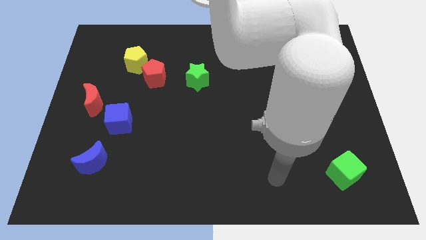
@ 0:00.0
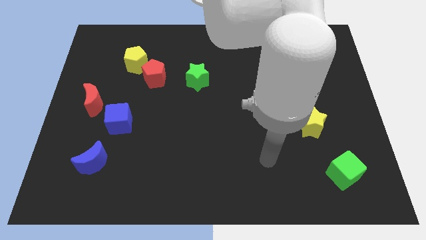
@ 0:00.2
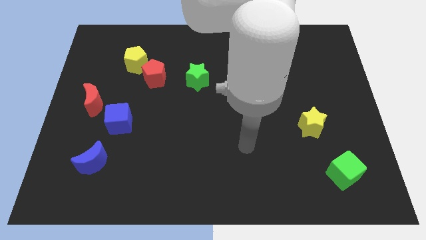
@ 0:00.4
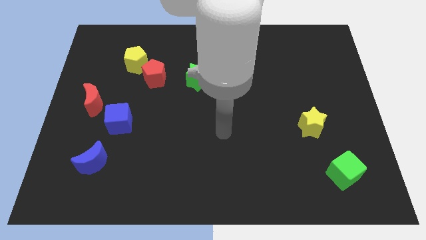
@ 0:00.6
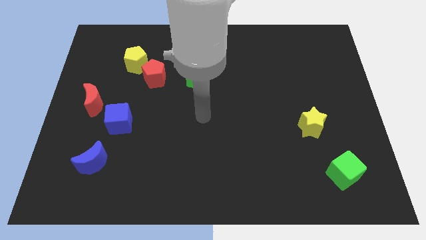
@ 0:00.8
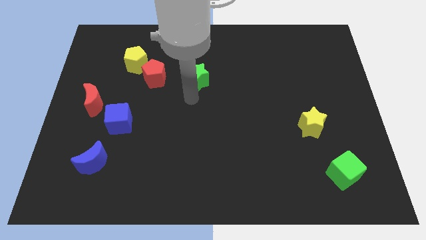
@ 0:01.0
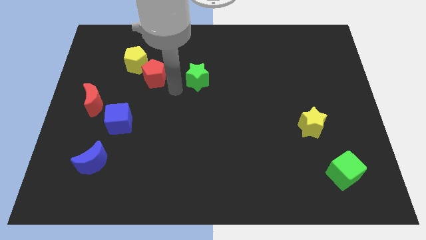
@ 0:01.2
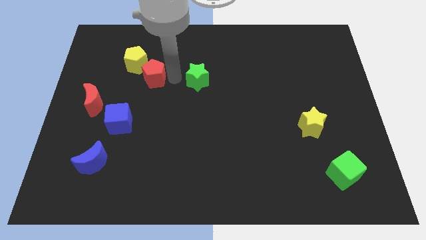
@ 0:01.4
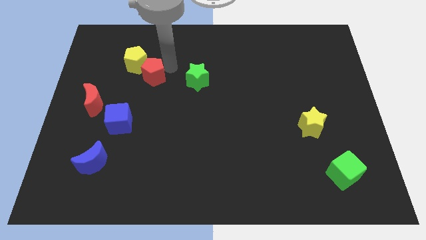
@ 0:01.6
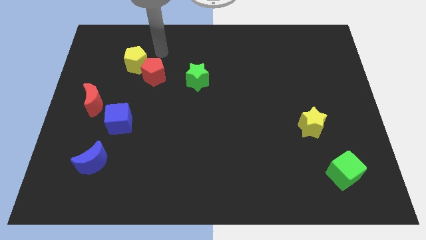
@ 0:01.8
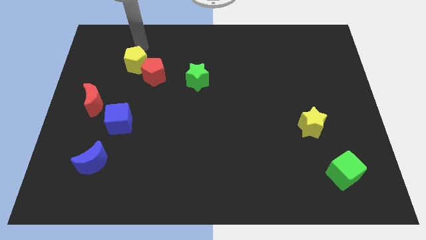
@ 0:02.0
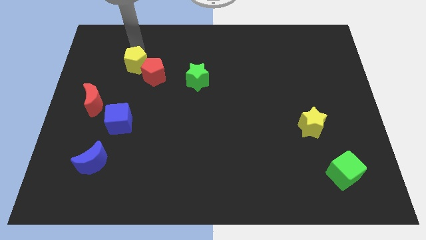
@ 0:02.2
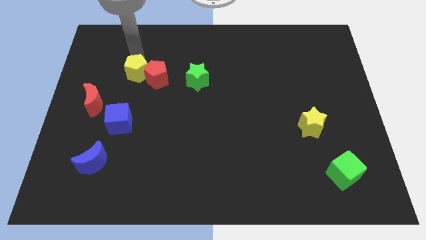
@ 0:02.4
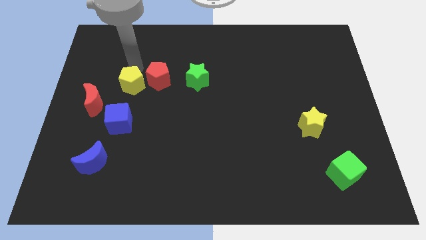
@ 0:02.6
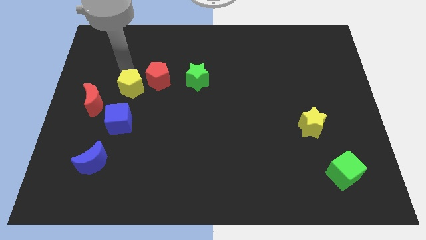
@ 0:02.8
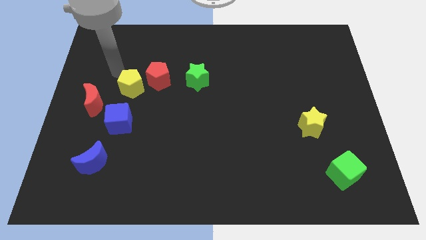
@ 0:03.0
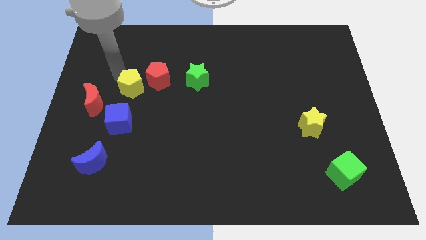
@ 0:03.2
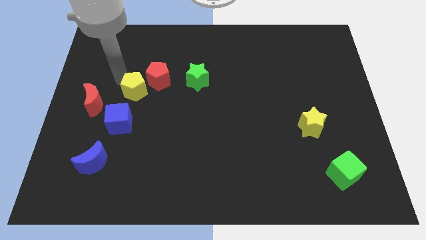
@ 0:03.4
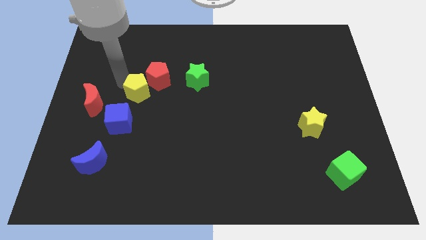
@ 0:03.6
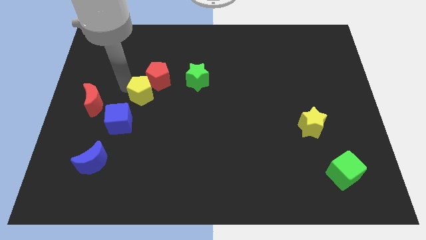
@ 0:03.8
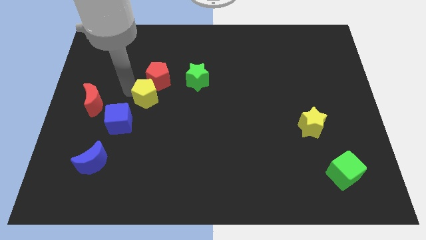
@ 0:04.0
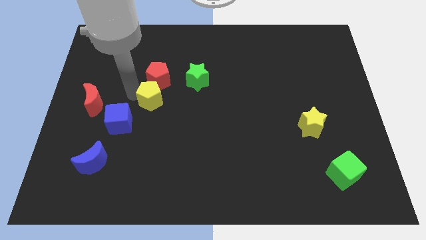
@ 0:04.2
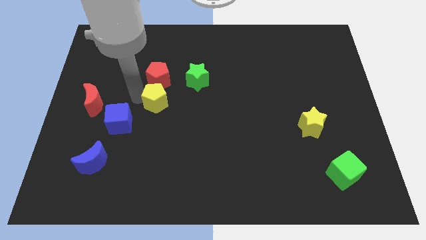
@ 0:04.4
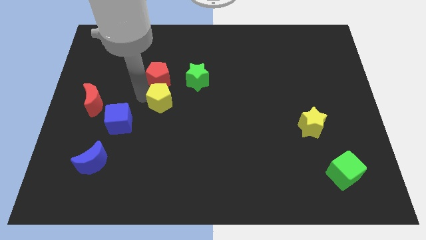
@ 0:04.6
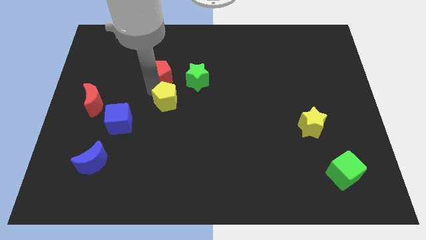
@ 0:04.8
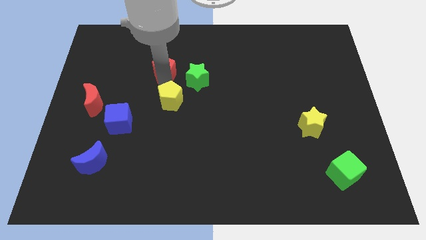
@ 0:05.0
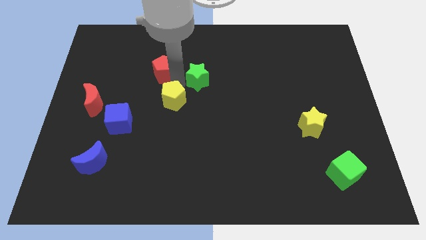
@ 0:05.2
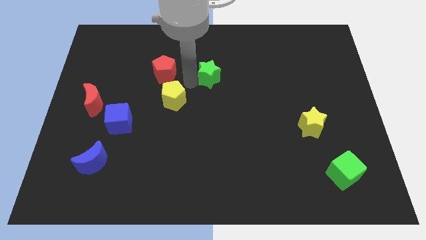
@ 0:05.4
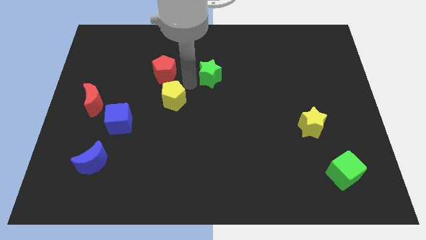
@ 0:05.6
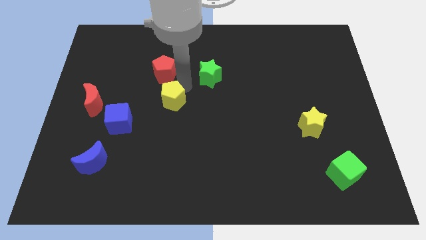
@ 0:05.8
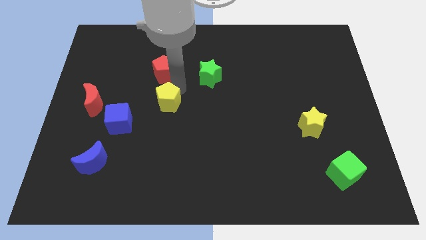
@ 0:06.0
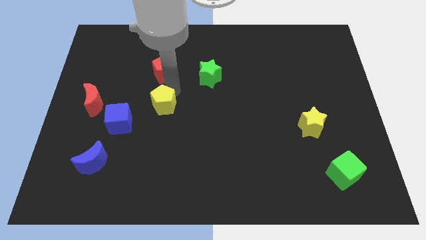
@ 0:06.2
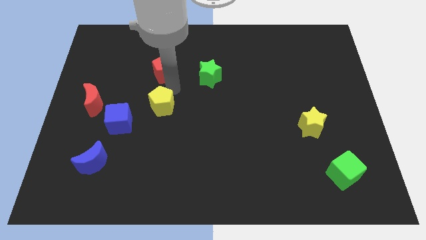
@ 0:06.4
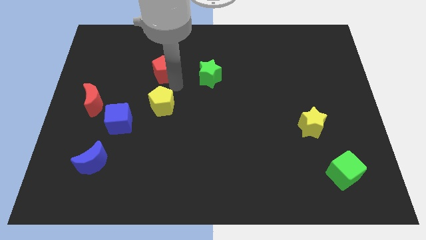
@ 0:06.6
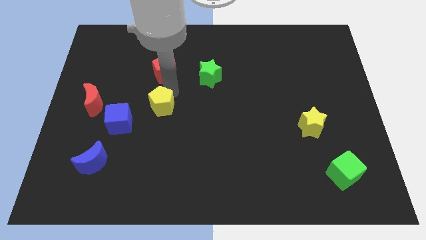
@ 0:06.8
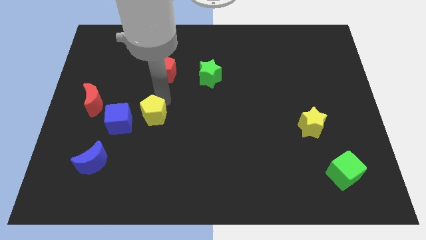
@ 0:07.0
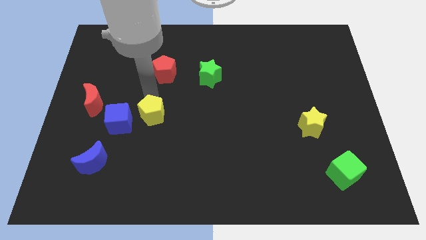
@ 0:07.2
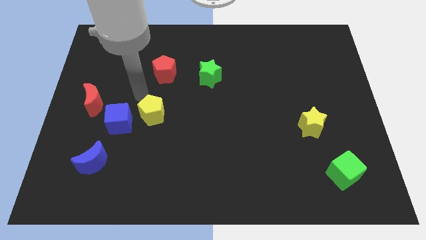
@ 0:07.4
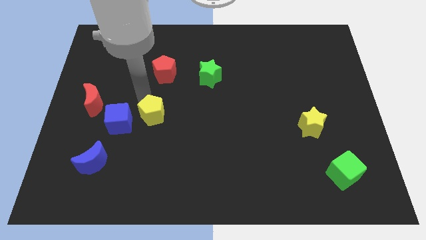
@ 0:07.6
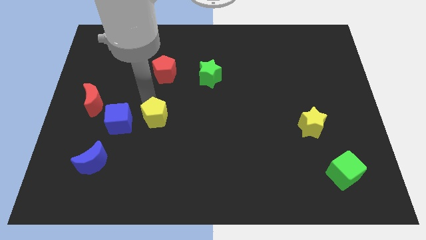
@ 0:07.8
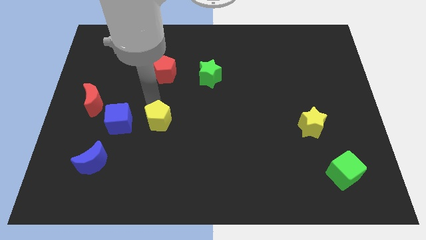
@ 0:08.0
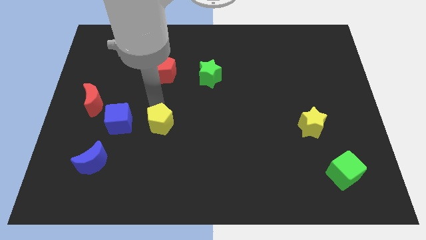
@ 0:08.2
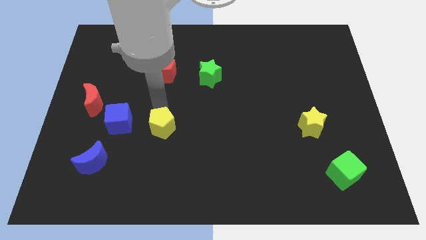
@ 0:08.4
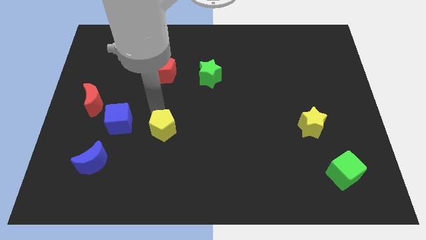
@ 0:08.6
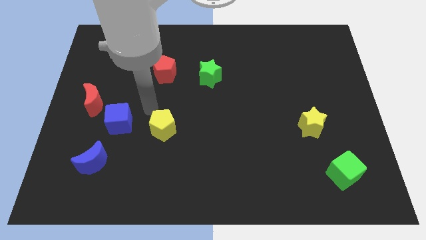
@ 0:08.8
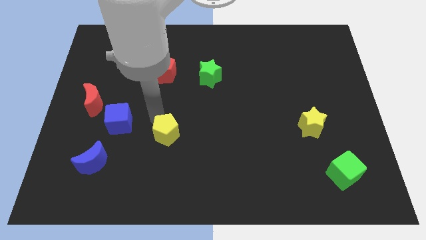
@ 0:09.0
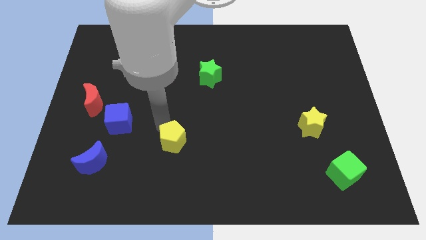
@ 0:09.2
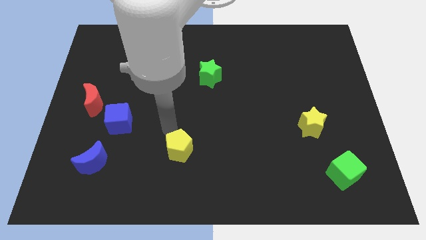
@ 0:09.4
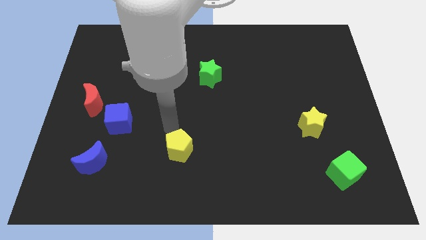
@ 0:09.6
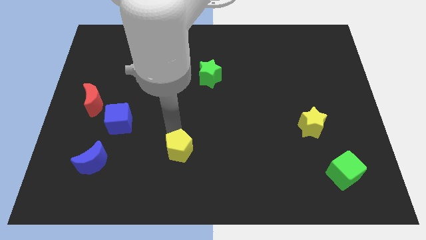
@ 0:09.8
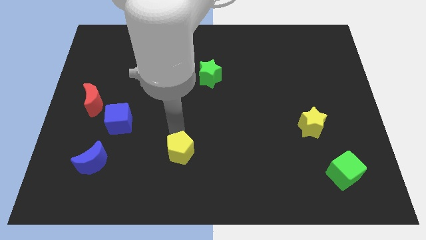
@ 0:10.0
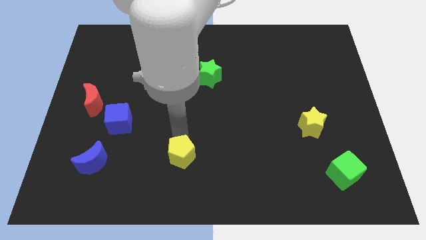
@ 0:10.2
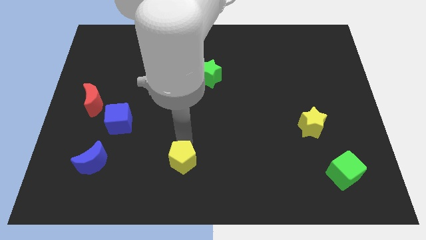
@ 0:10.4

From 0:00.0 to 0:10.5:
put the yellow pentagon to the bottom side

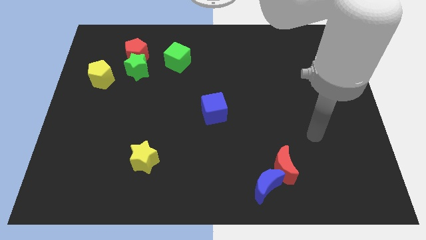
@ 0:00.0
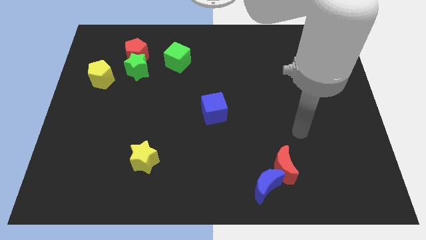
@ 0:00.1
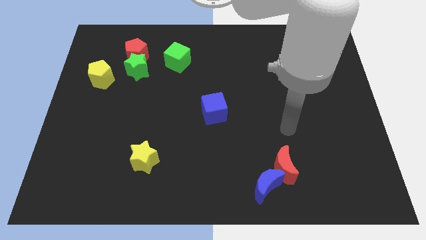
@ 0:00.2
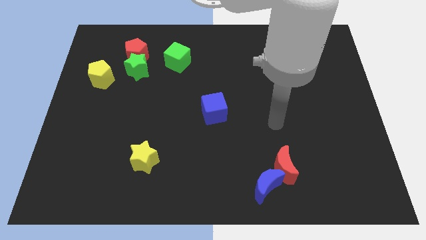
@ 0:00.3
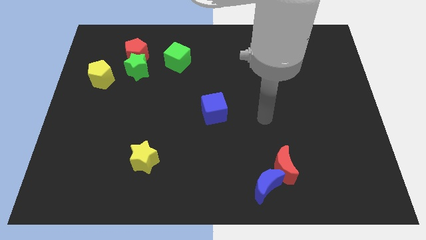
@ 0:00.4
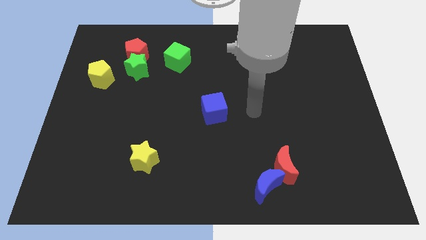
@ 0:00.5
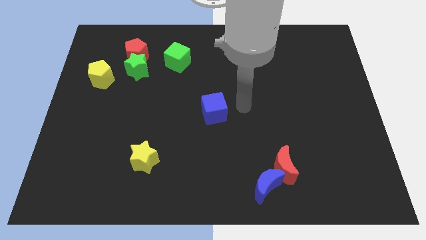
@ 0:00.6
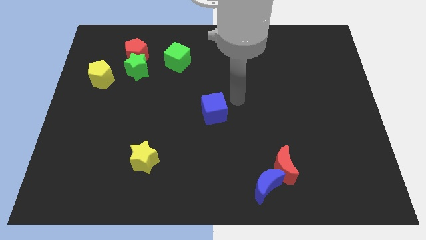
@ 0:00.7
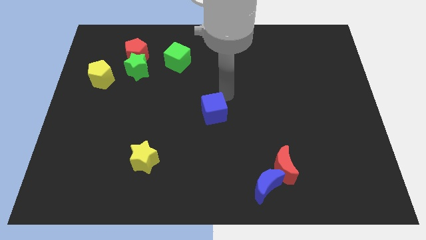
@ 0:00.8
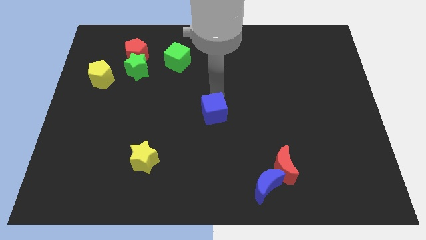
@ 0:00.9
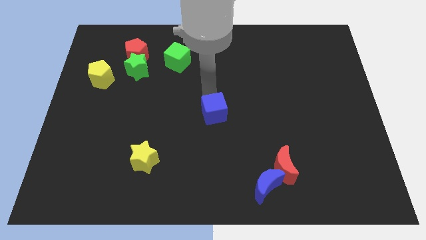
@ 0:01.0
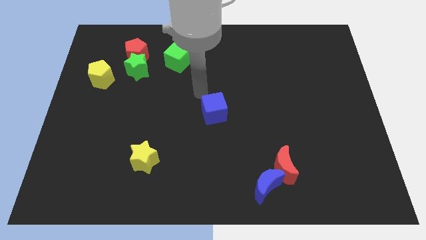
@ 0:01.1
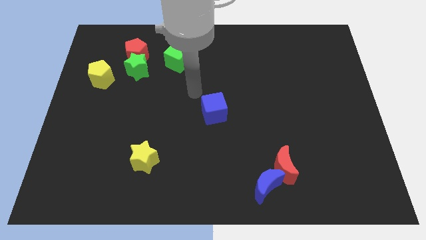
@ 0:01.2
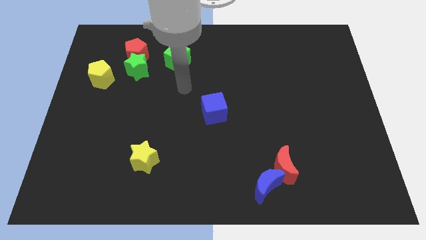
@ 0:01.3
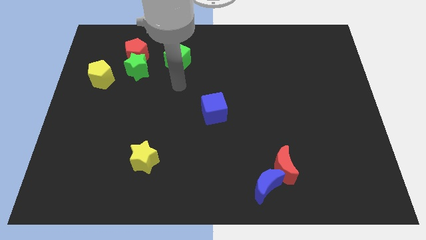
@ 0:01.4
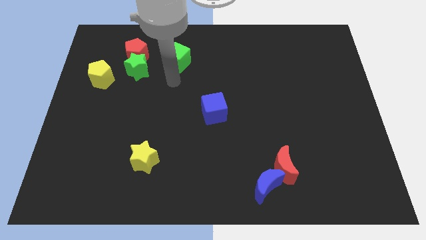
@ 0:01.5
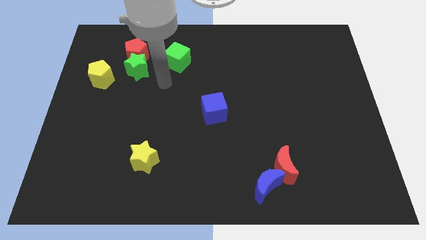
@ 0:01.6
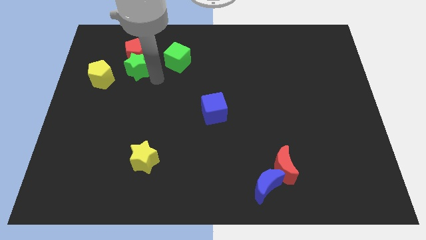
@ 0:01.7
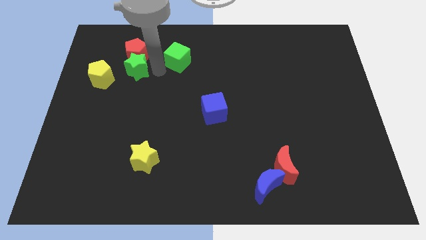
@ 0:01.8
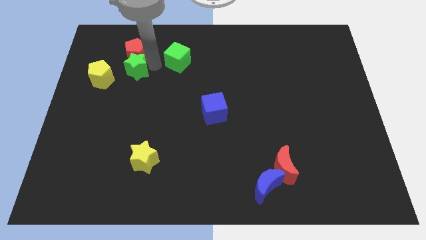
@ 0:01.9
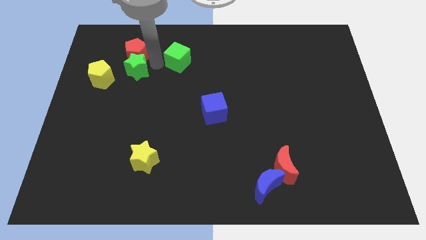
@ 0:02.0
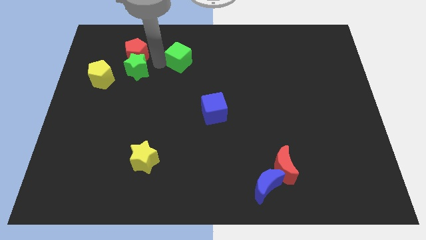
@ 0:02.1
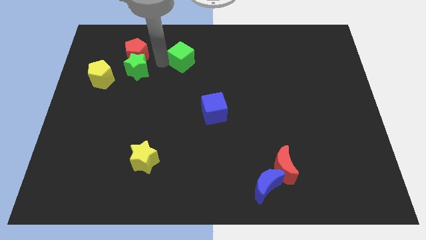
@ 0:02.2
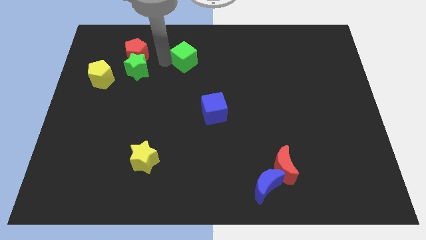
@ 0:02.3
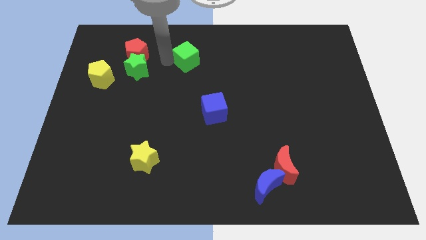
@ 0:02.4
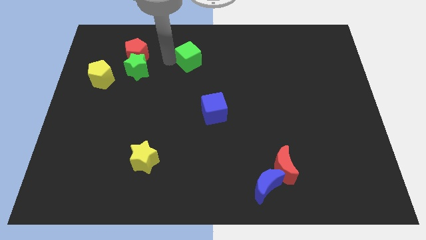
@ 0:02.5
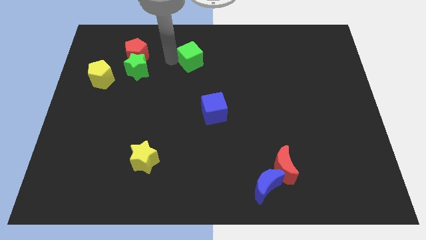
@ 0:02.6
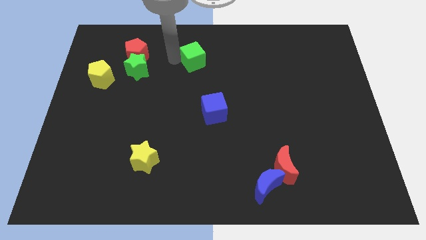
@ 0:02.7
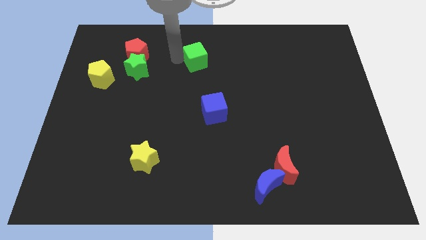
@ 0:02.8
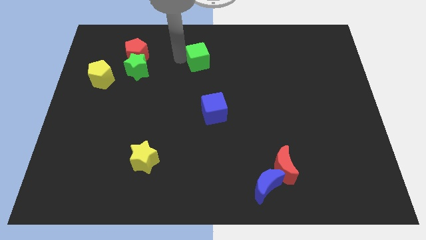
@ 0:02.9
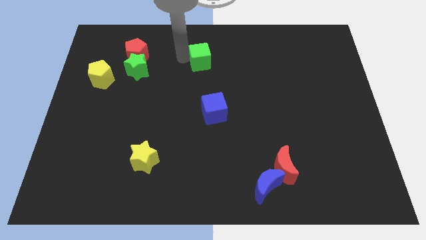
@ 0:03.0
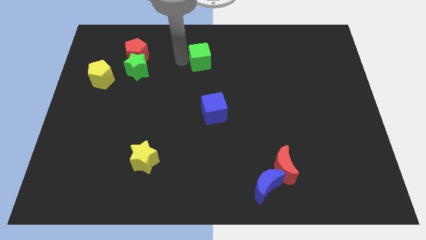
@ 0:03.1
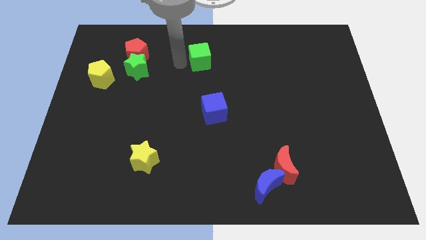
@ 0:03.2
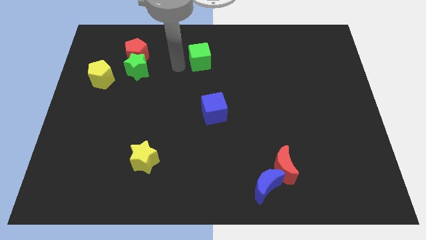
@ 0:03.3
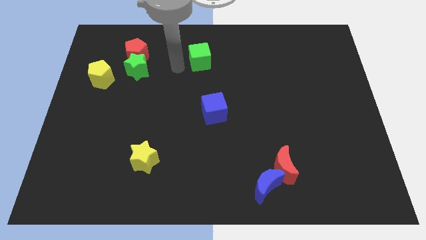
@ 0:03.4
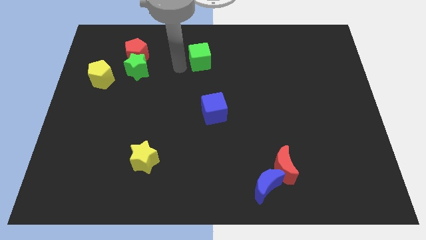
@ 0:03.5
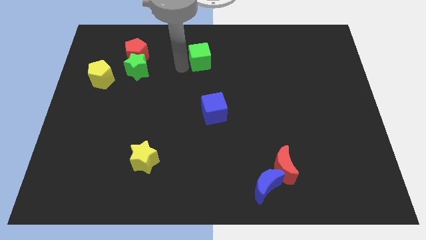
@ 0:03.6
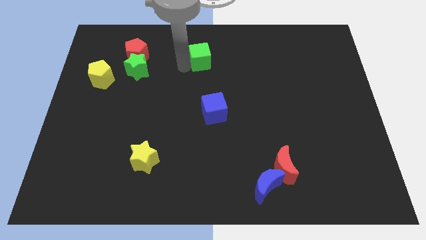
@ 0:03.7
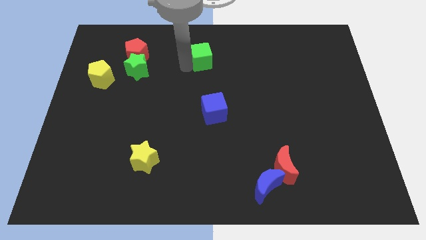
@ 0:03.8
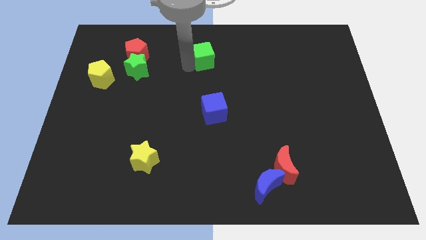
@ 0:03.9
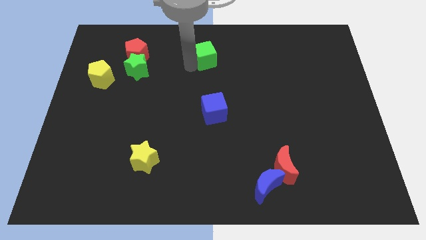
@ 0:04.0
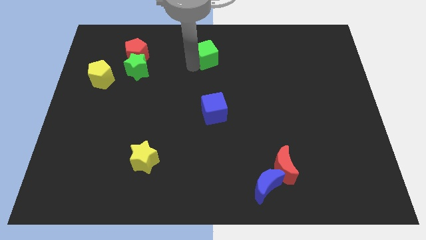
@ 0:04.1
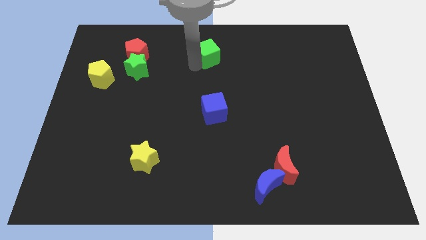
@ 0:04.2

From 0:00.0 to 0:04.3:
push the green cube to the towards your base
